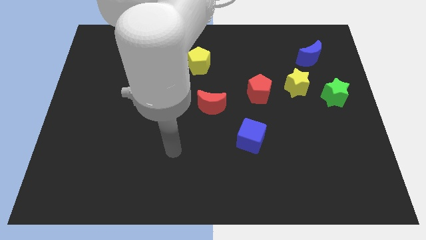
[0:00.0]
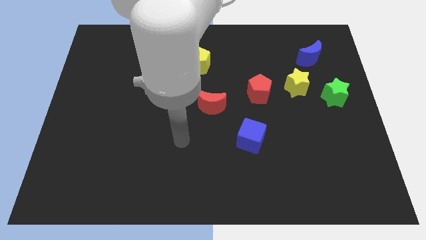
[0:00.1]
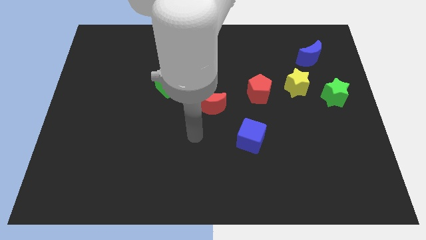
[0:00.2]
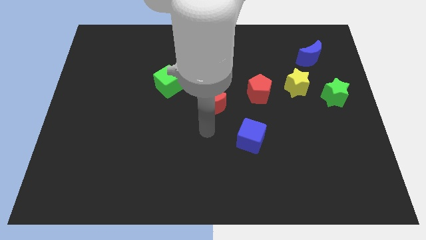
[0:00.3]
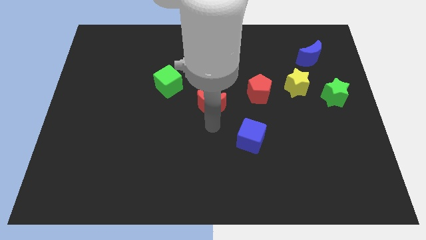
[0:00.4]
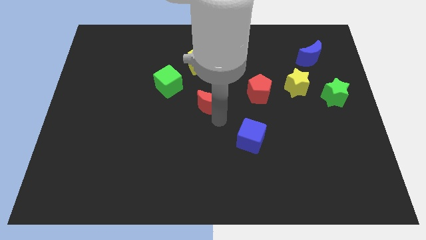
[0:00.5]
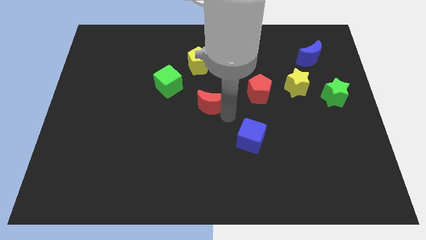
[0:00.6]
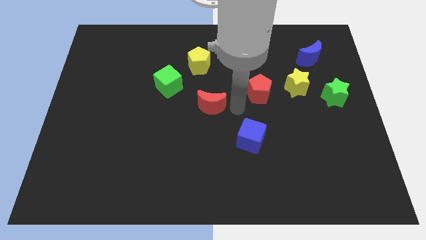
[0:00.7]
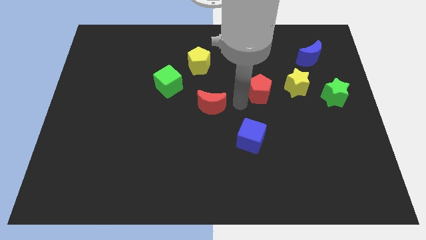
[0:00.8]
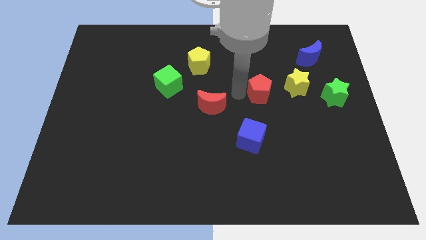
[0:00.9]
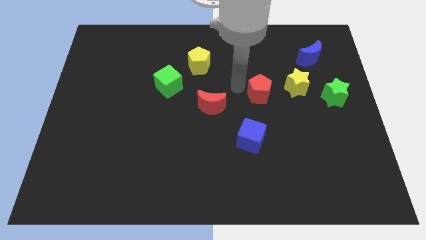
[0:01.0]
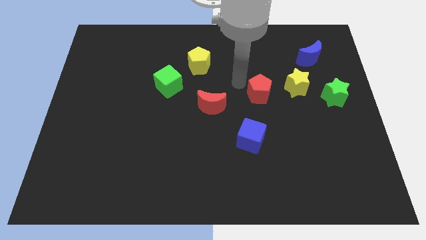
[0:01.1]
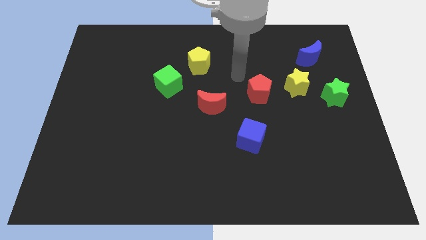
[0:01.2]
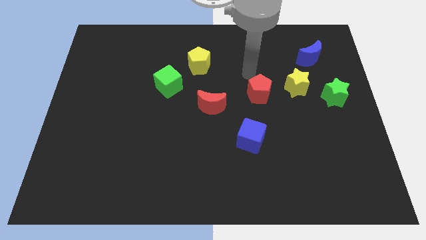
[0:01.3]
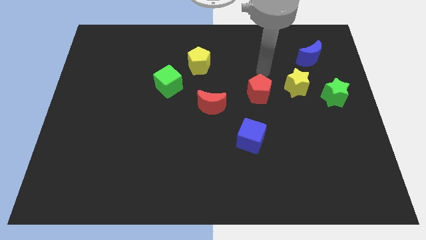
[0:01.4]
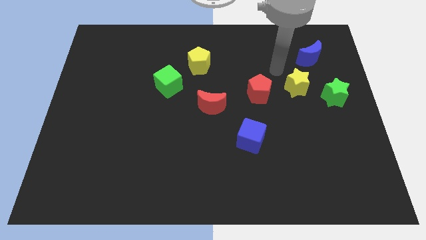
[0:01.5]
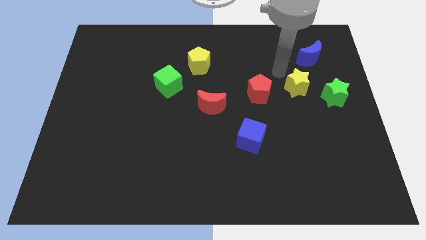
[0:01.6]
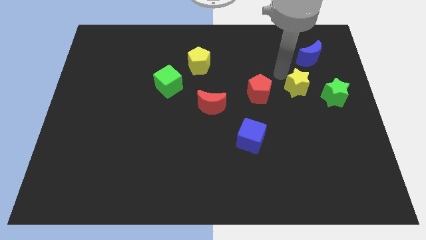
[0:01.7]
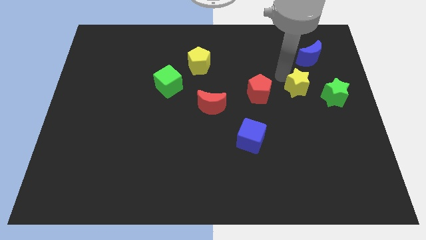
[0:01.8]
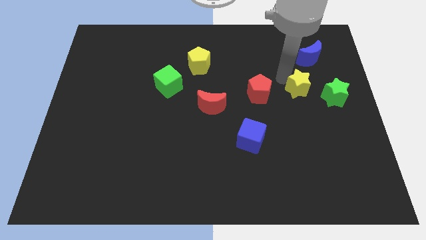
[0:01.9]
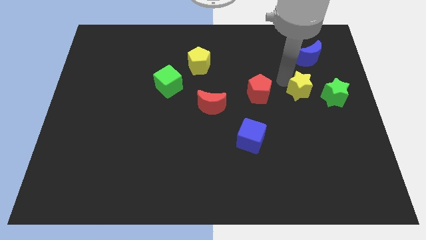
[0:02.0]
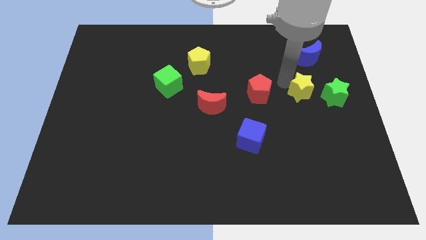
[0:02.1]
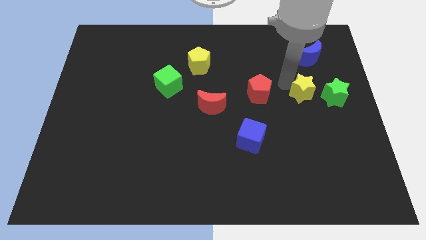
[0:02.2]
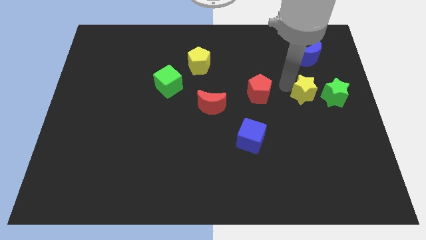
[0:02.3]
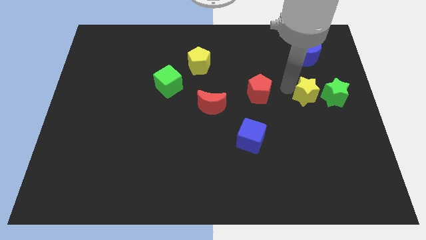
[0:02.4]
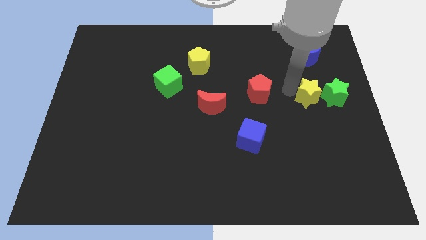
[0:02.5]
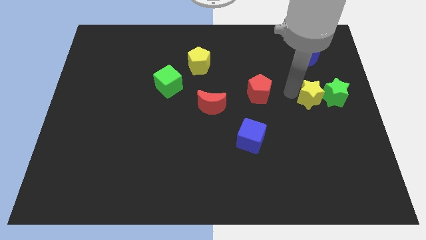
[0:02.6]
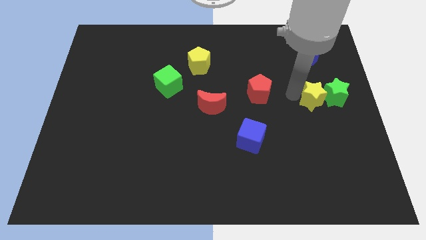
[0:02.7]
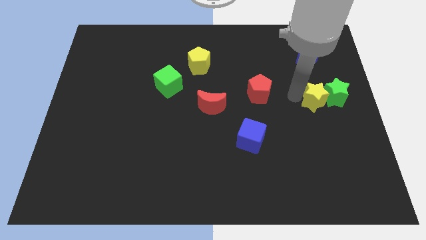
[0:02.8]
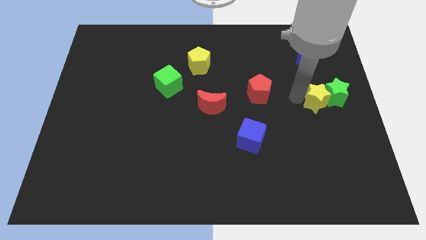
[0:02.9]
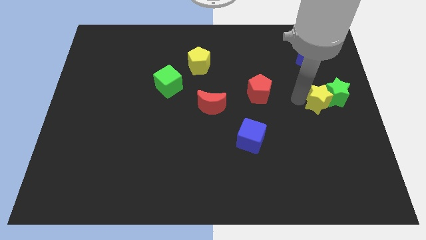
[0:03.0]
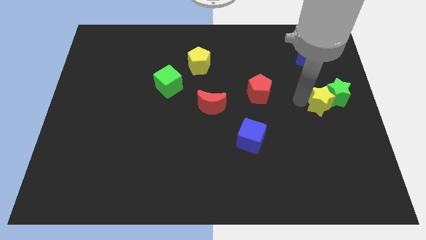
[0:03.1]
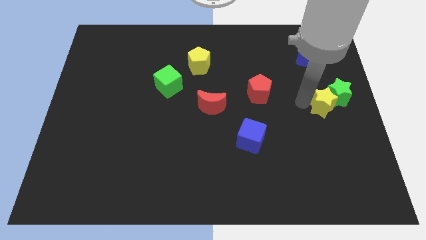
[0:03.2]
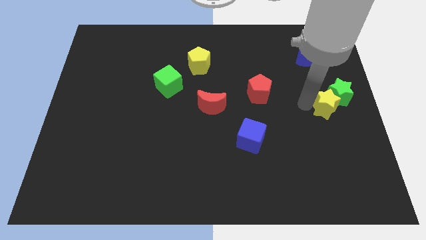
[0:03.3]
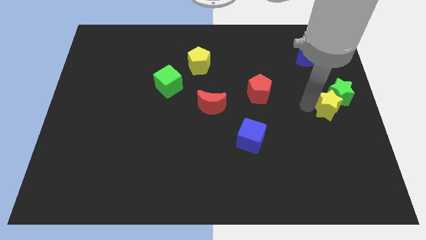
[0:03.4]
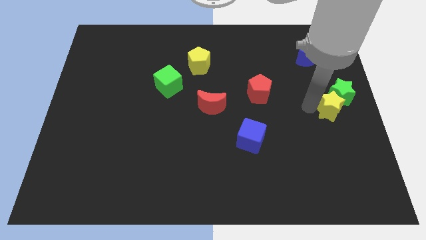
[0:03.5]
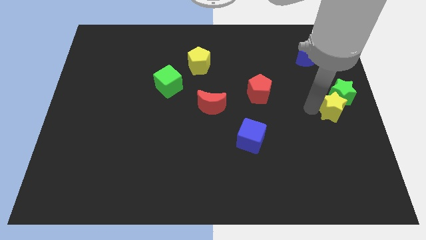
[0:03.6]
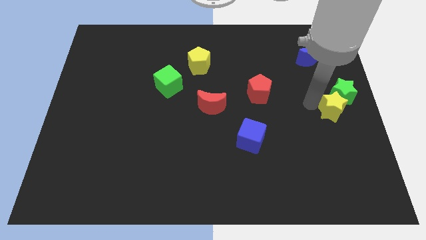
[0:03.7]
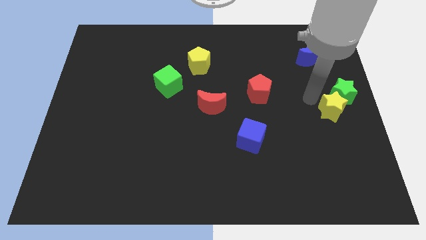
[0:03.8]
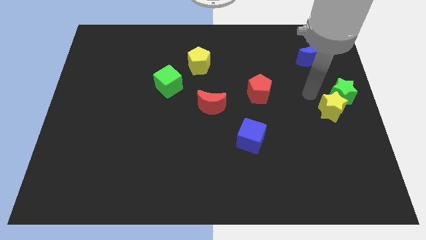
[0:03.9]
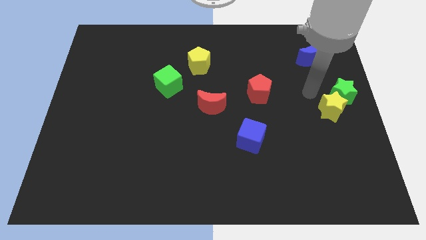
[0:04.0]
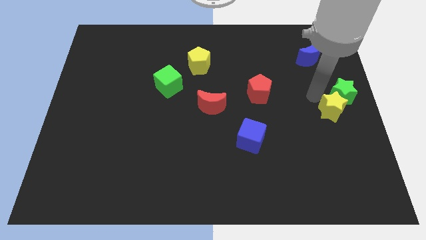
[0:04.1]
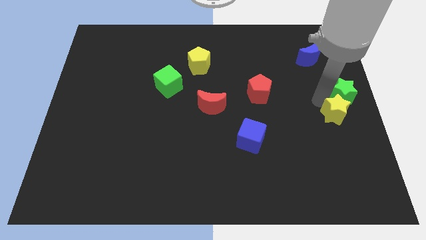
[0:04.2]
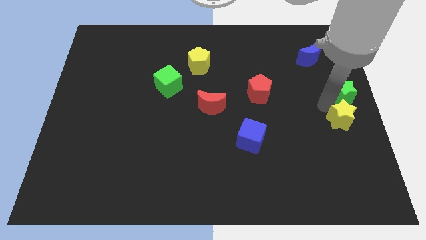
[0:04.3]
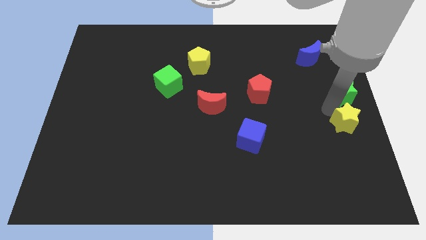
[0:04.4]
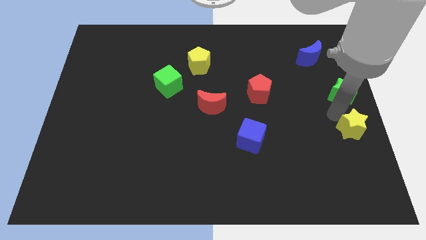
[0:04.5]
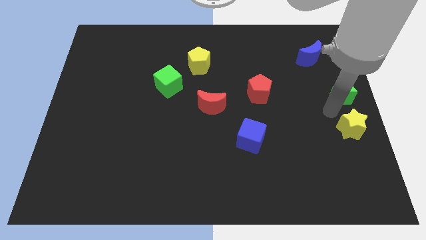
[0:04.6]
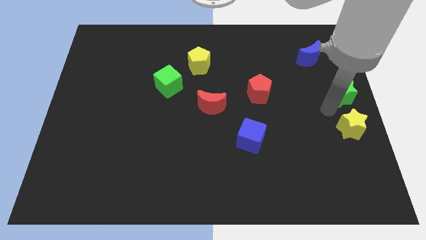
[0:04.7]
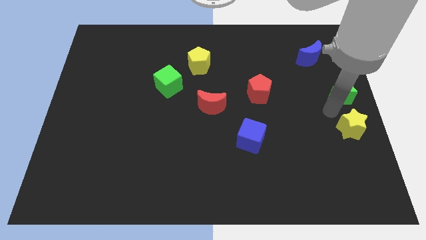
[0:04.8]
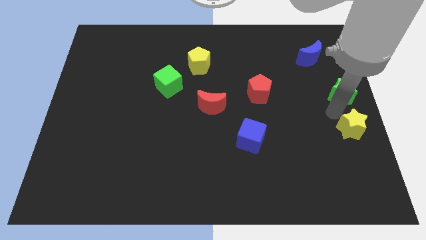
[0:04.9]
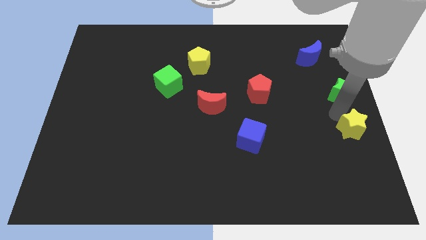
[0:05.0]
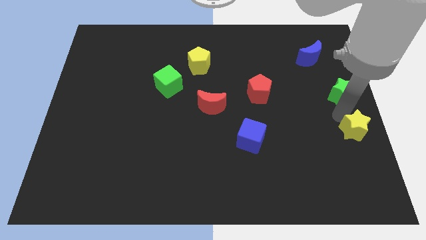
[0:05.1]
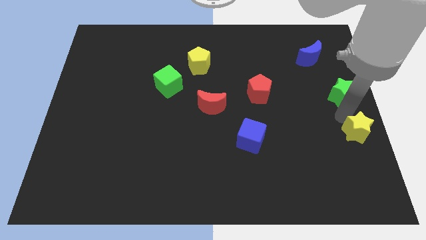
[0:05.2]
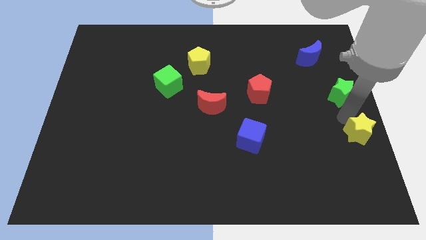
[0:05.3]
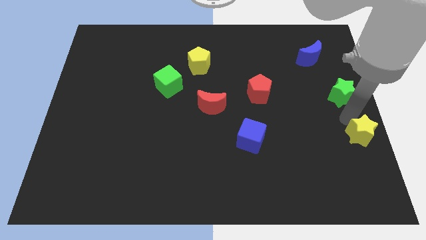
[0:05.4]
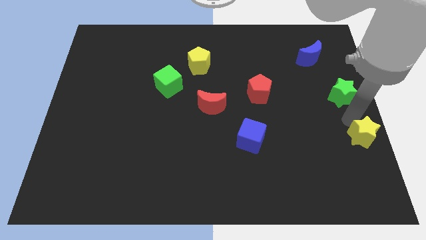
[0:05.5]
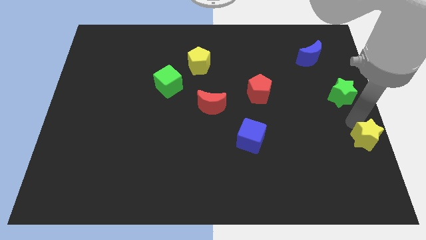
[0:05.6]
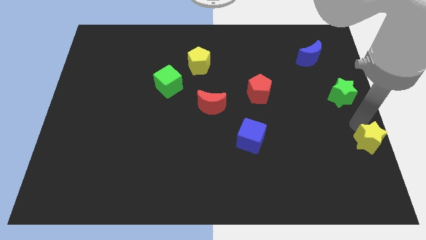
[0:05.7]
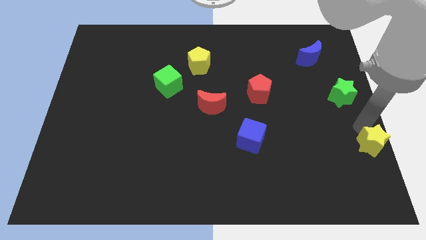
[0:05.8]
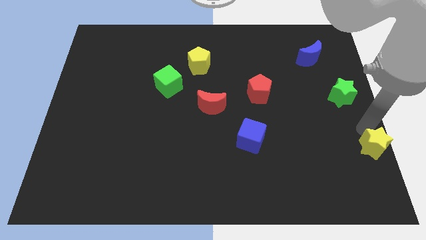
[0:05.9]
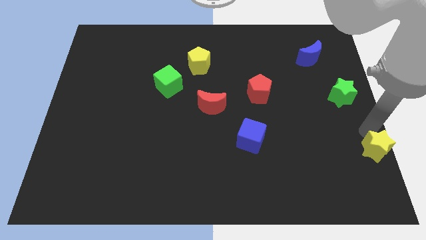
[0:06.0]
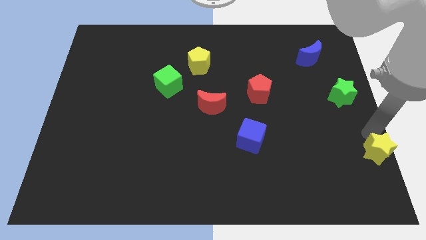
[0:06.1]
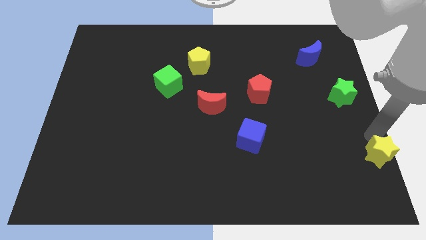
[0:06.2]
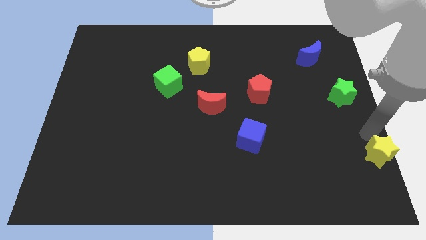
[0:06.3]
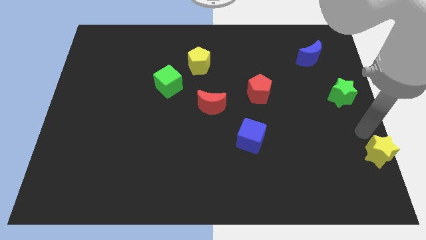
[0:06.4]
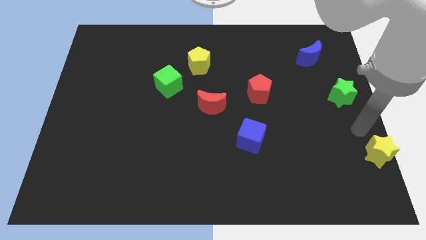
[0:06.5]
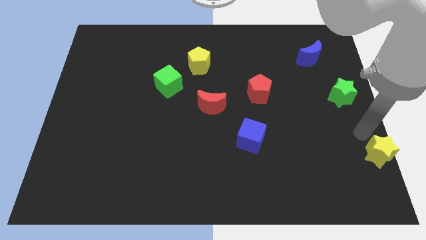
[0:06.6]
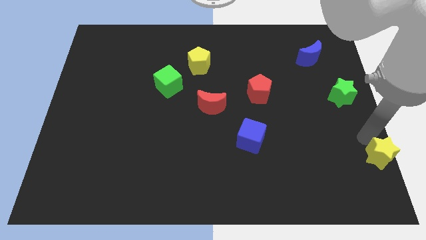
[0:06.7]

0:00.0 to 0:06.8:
put the yellow star to the bottom right of the board

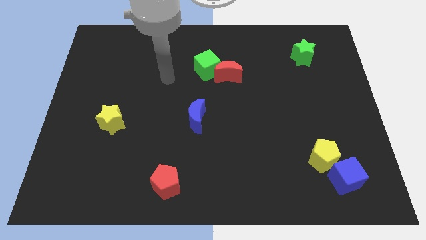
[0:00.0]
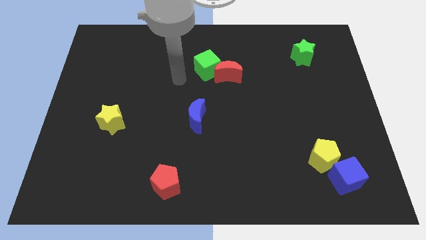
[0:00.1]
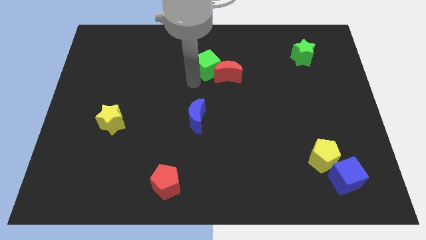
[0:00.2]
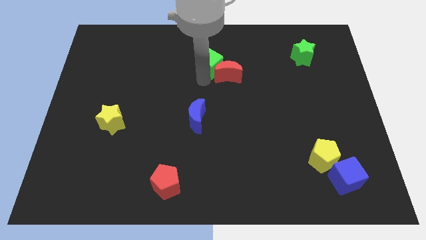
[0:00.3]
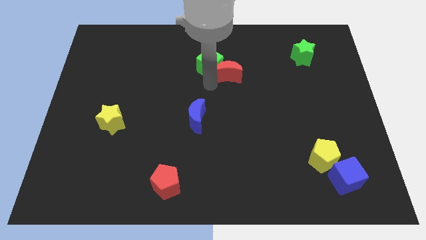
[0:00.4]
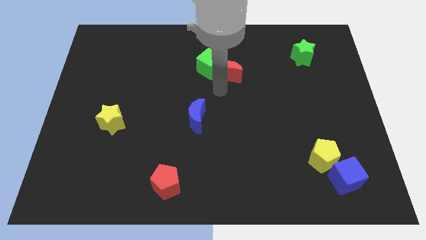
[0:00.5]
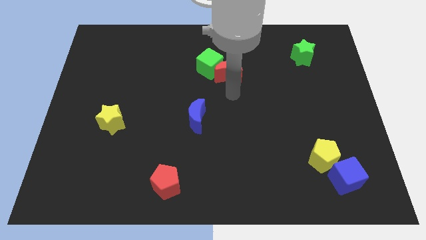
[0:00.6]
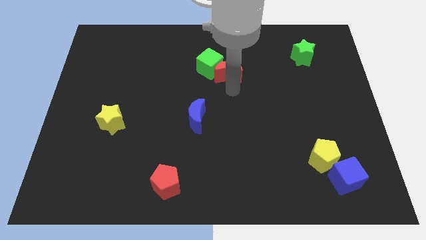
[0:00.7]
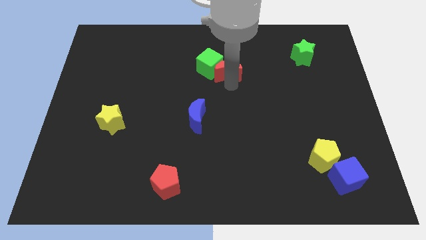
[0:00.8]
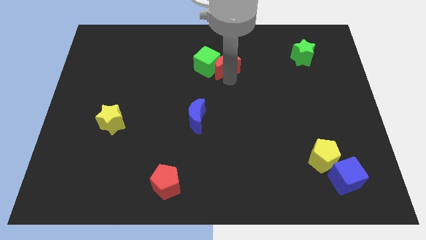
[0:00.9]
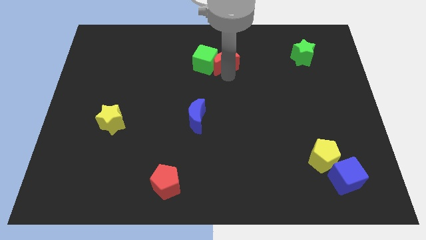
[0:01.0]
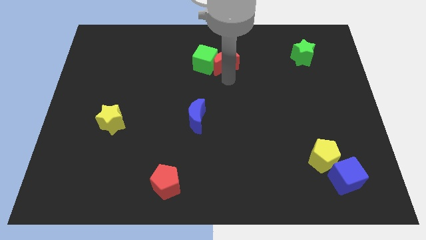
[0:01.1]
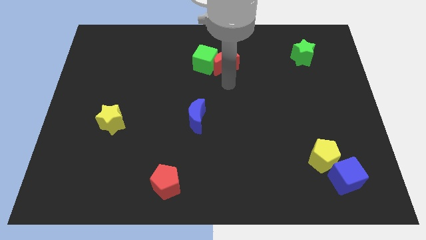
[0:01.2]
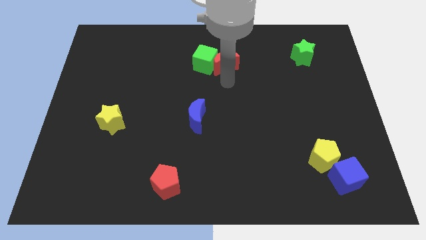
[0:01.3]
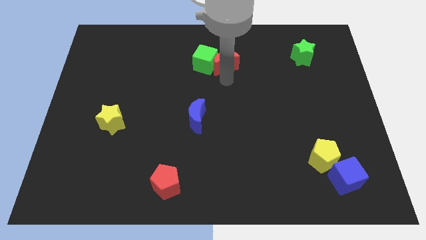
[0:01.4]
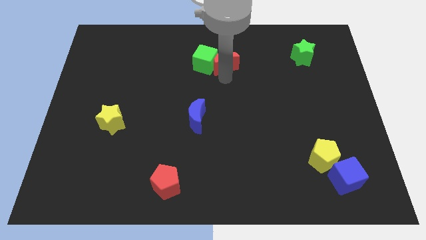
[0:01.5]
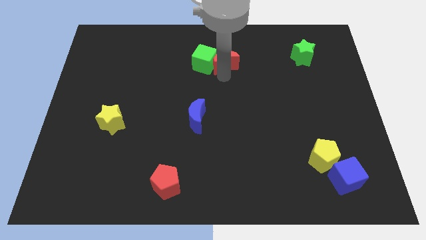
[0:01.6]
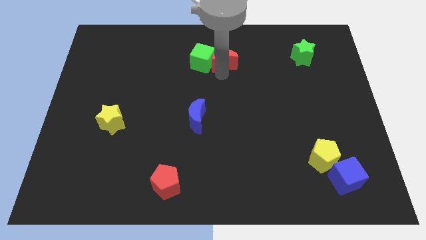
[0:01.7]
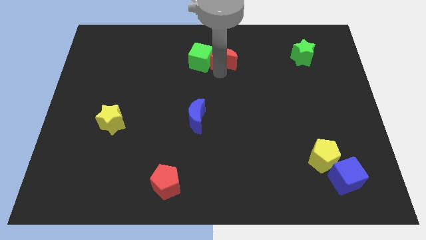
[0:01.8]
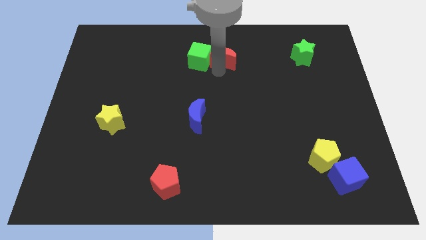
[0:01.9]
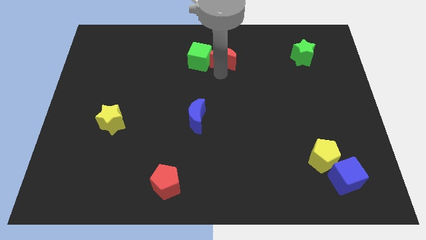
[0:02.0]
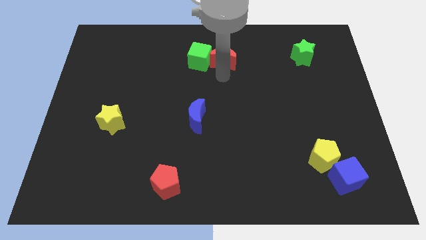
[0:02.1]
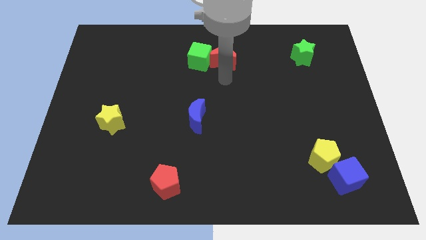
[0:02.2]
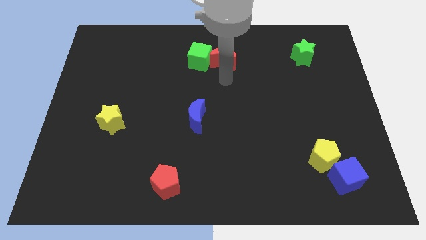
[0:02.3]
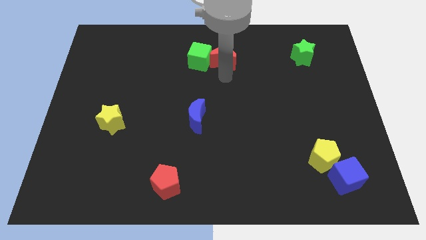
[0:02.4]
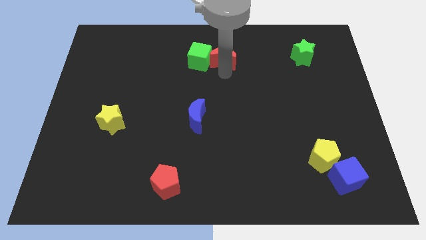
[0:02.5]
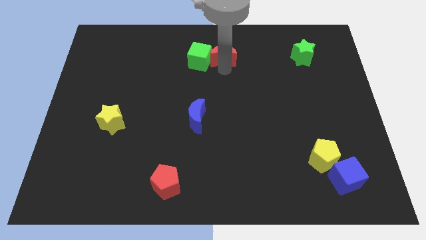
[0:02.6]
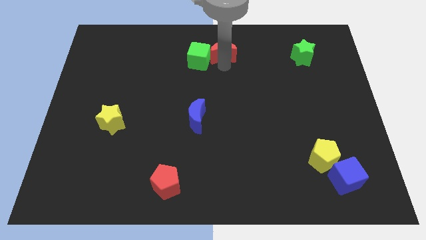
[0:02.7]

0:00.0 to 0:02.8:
move the red moon to the towards your base
